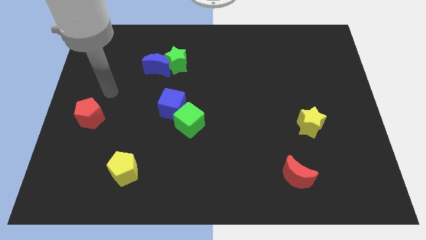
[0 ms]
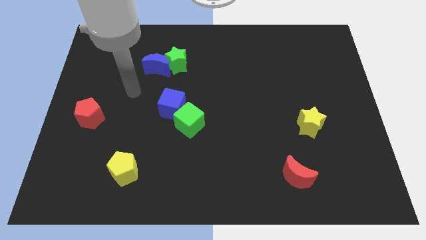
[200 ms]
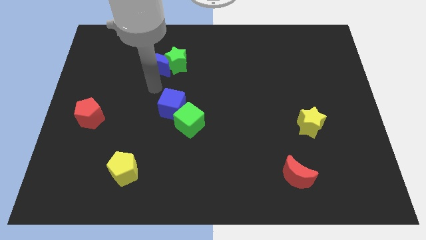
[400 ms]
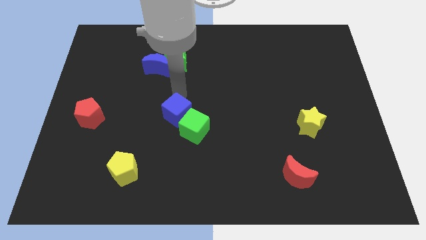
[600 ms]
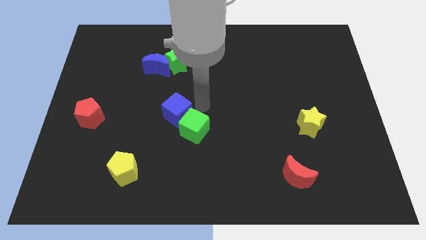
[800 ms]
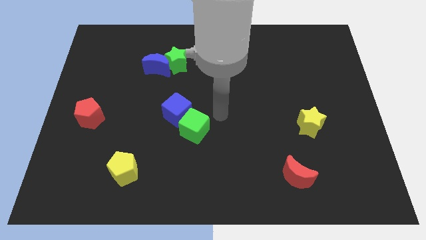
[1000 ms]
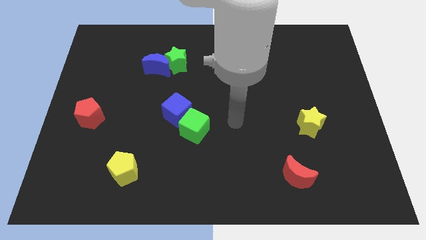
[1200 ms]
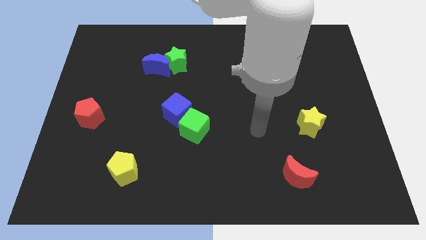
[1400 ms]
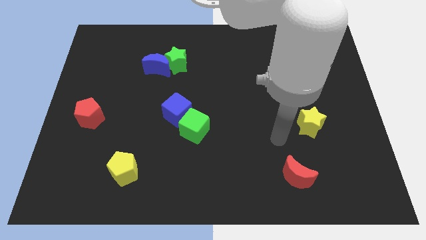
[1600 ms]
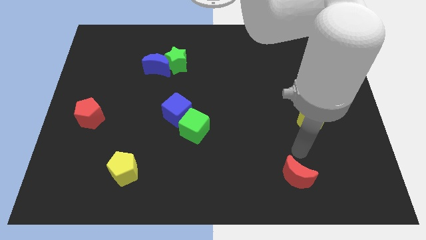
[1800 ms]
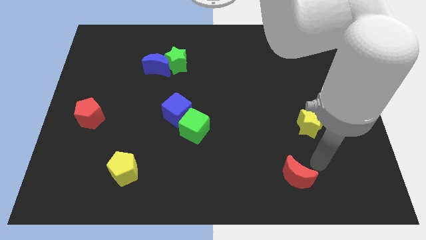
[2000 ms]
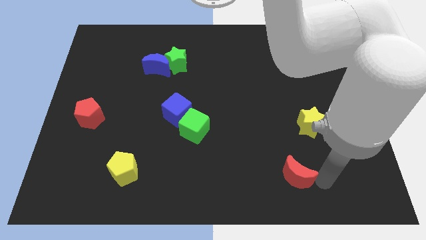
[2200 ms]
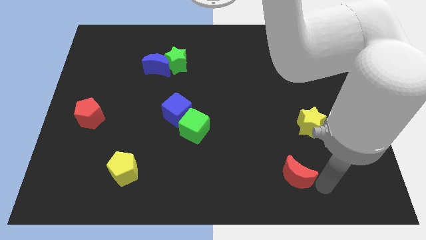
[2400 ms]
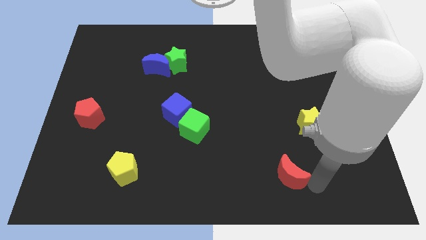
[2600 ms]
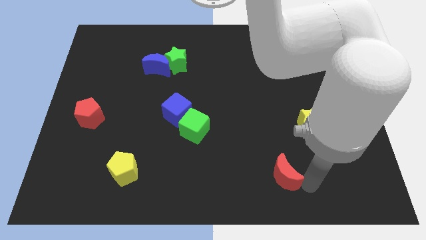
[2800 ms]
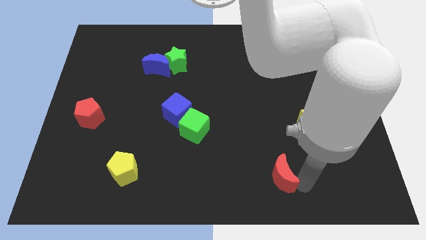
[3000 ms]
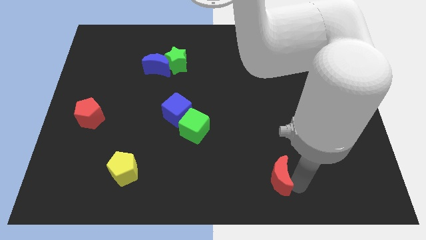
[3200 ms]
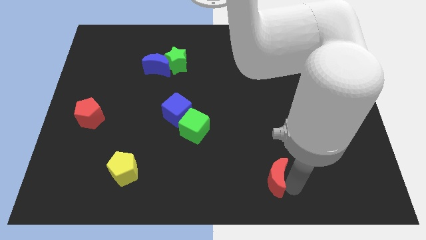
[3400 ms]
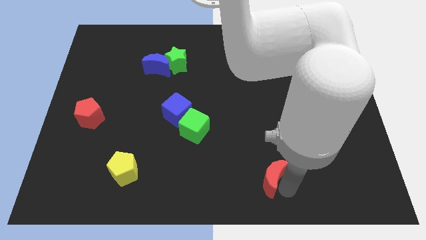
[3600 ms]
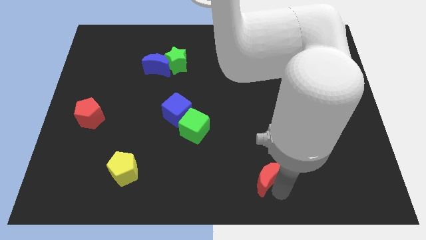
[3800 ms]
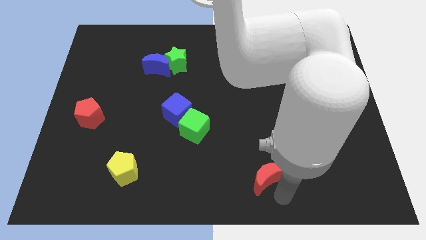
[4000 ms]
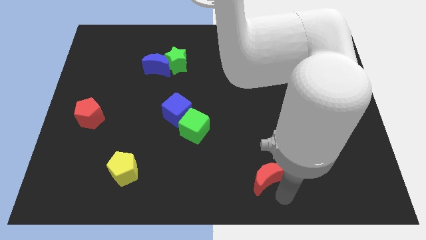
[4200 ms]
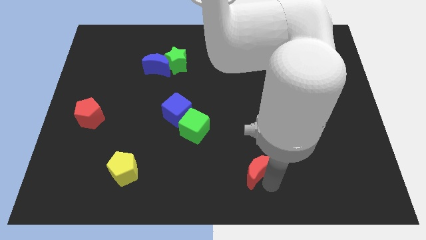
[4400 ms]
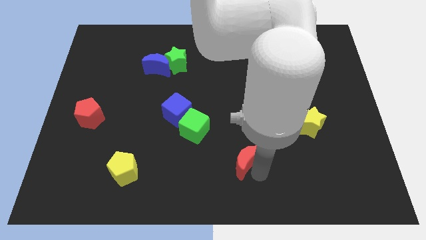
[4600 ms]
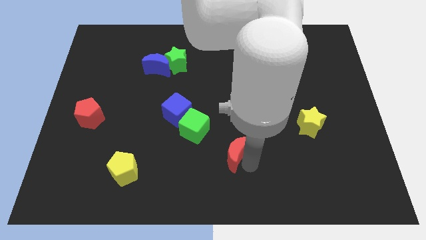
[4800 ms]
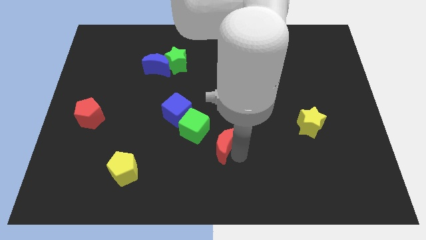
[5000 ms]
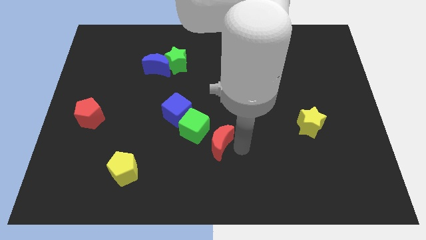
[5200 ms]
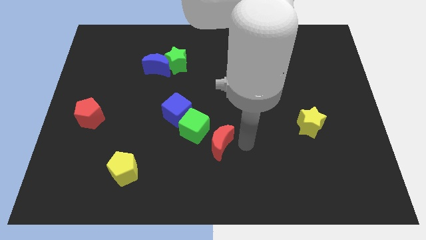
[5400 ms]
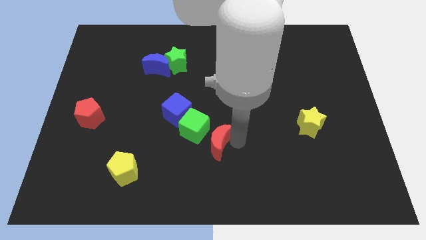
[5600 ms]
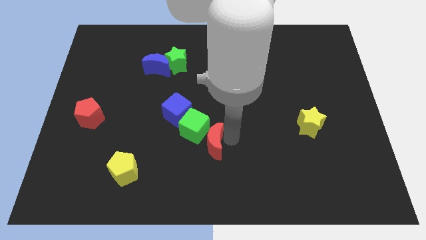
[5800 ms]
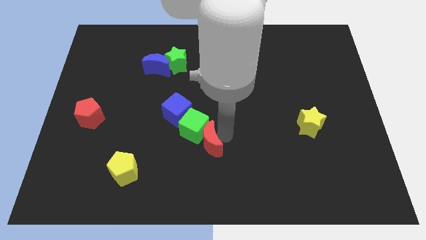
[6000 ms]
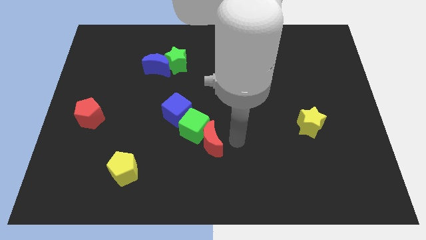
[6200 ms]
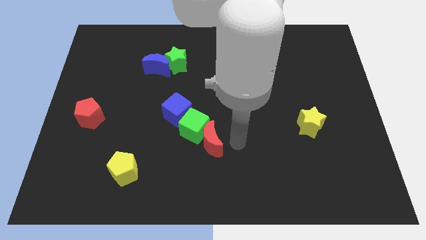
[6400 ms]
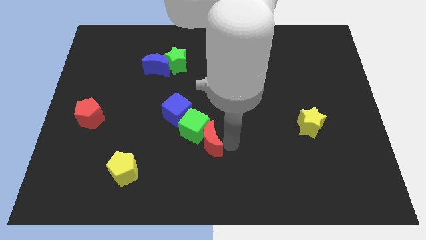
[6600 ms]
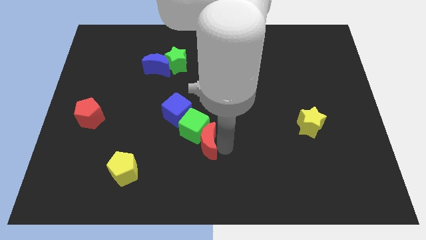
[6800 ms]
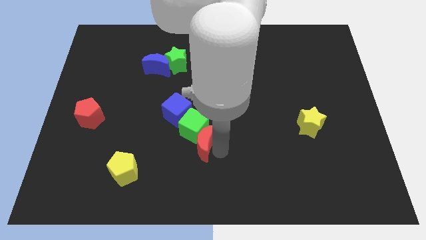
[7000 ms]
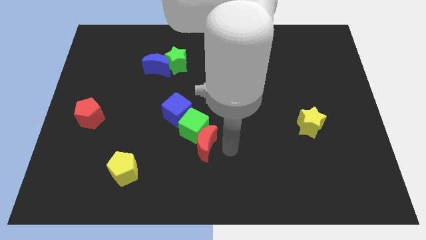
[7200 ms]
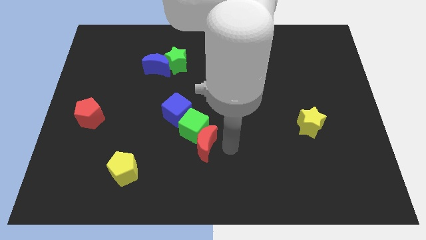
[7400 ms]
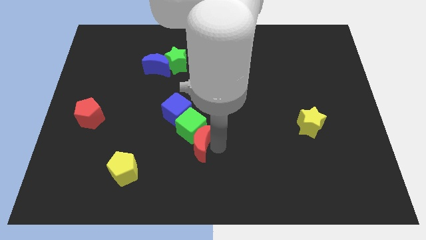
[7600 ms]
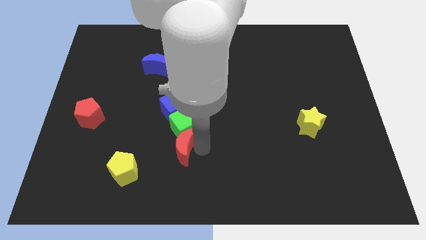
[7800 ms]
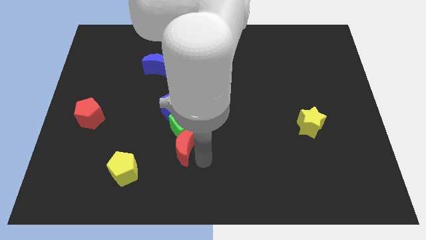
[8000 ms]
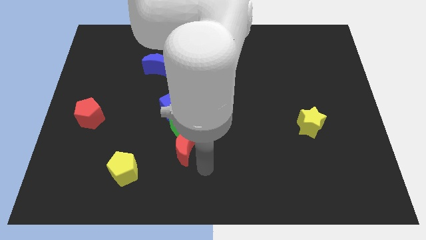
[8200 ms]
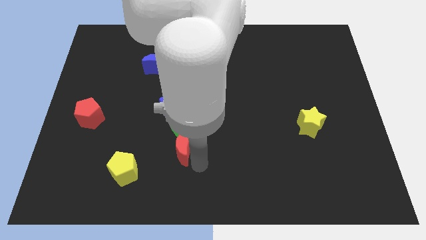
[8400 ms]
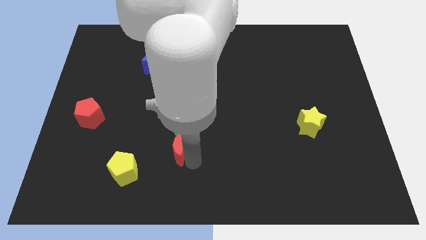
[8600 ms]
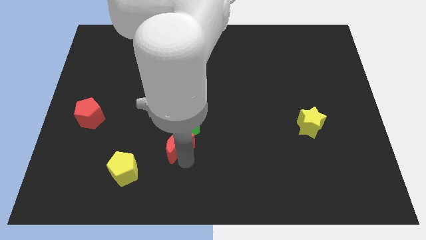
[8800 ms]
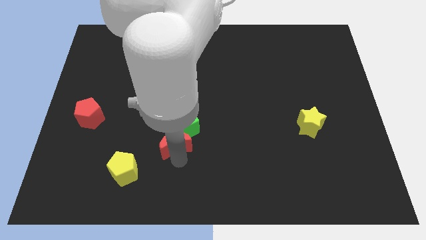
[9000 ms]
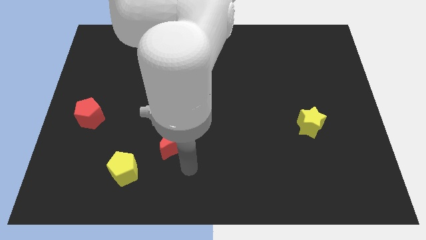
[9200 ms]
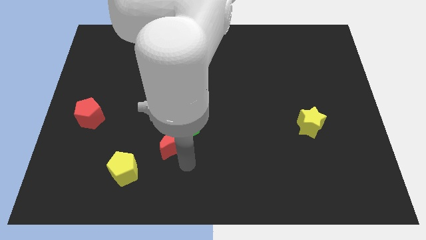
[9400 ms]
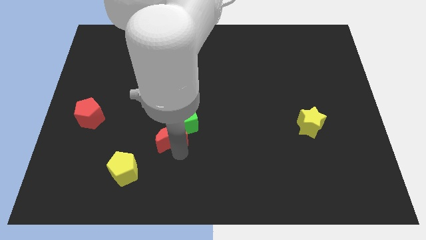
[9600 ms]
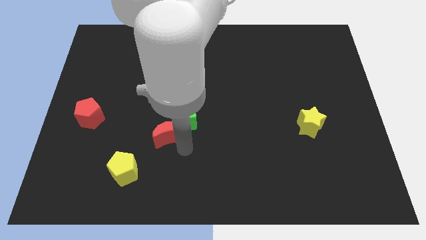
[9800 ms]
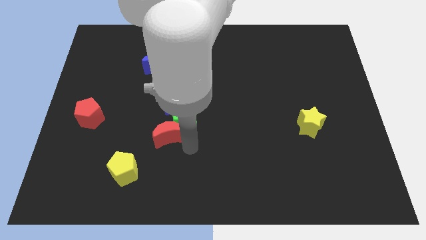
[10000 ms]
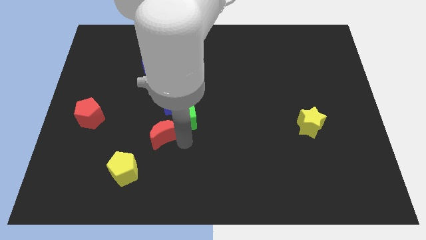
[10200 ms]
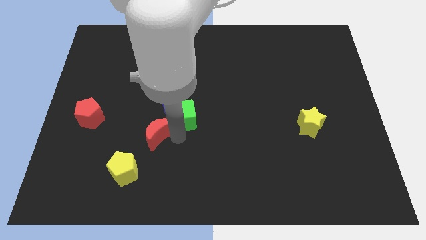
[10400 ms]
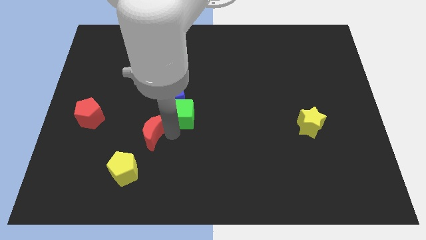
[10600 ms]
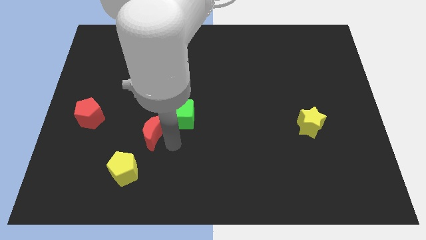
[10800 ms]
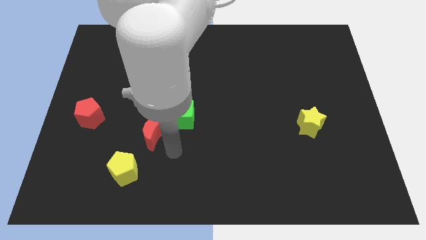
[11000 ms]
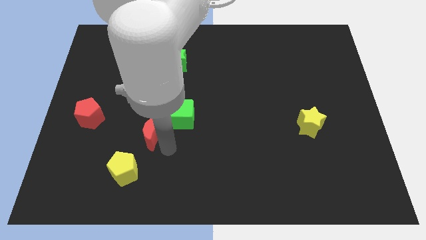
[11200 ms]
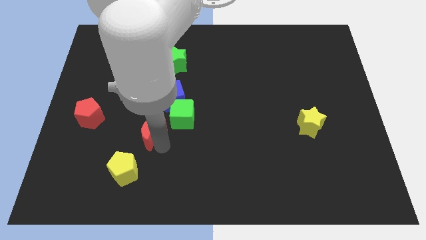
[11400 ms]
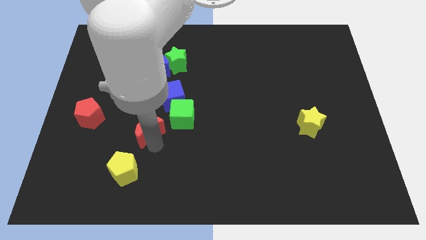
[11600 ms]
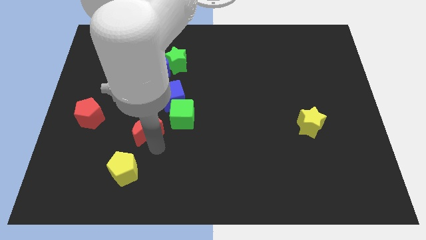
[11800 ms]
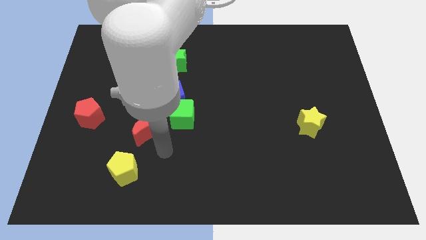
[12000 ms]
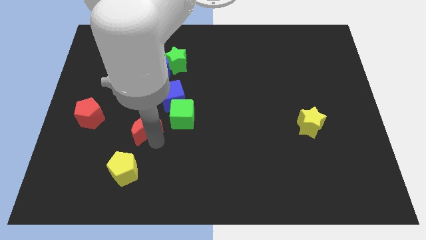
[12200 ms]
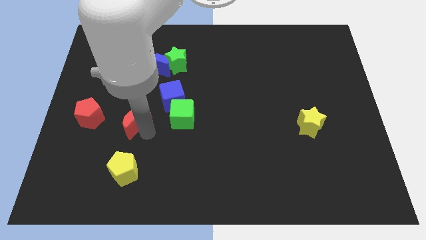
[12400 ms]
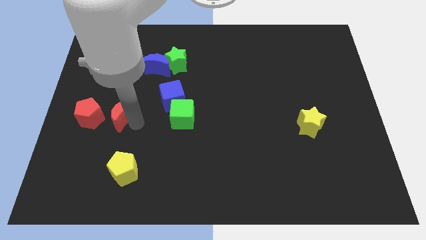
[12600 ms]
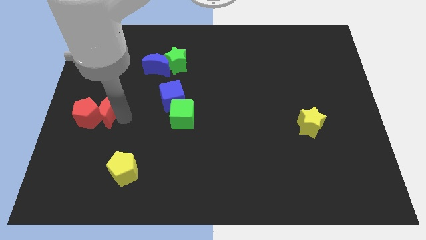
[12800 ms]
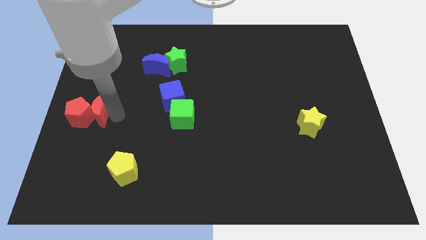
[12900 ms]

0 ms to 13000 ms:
put the red moon to the left side
